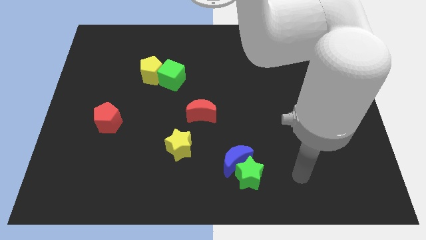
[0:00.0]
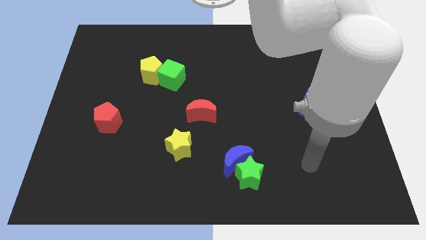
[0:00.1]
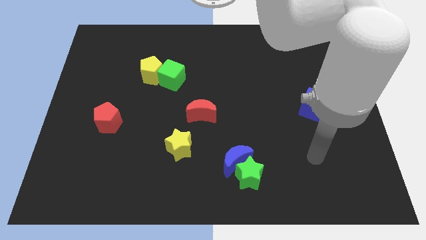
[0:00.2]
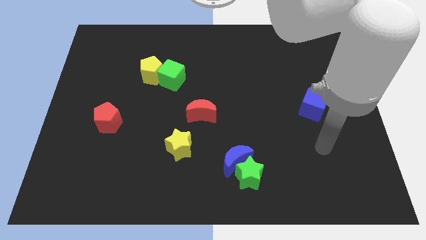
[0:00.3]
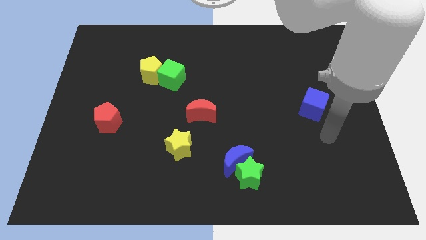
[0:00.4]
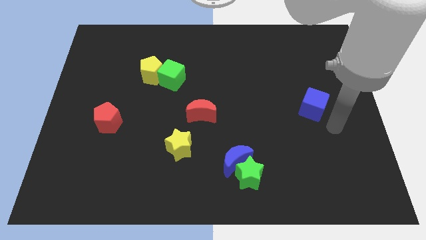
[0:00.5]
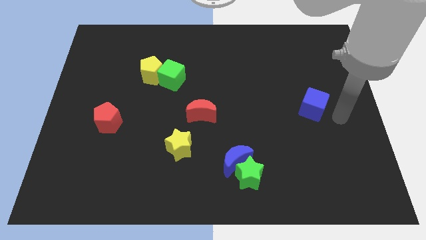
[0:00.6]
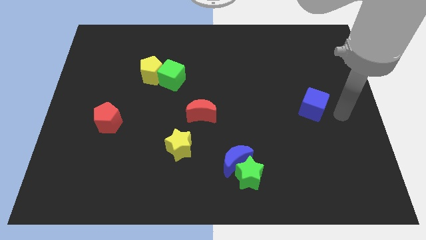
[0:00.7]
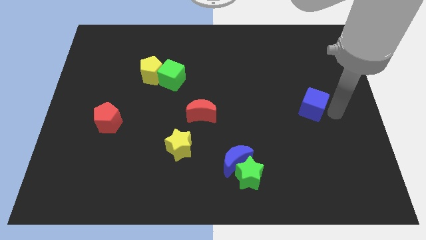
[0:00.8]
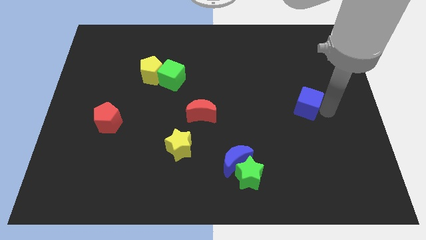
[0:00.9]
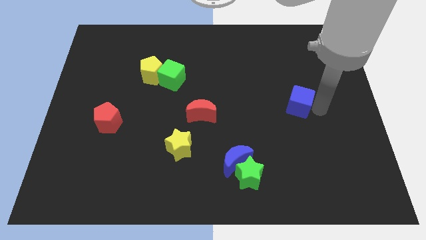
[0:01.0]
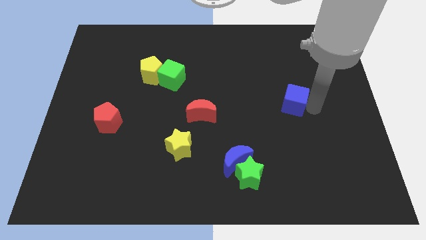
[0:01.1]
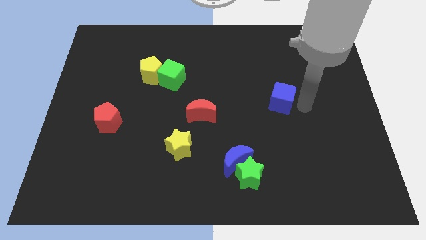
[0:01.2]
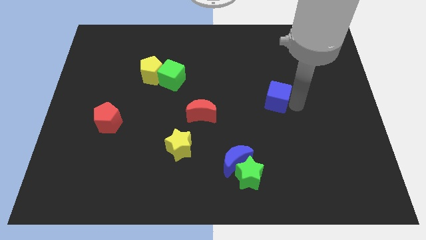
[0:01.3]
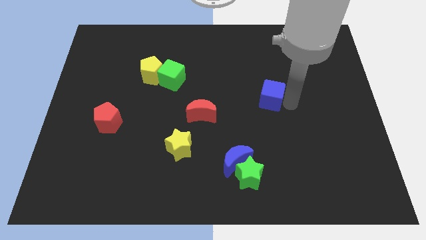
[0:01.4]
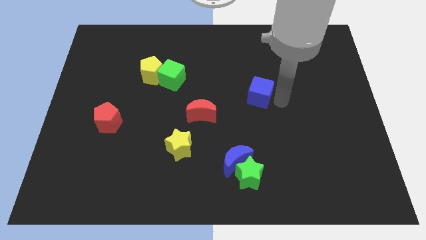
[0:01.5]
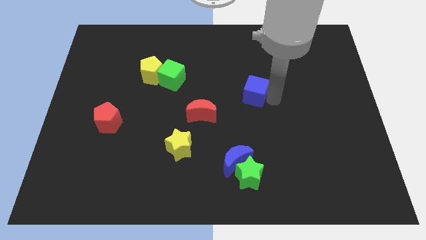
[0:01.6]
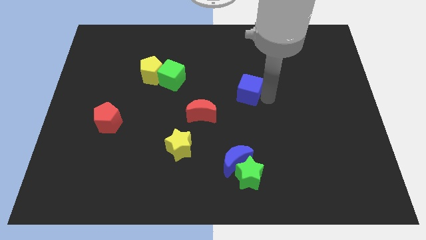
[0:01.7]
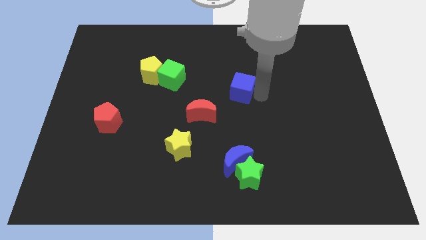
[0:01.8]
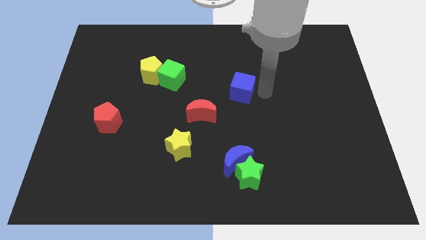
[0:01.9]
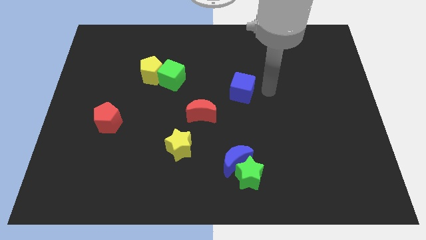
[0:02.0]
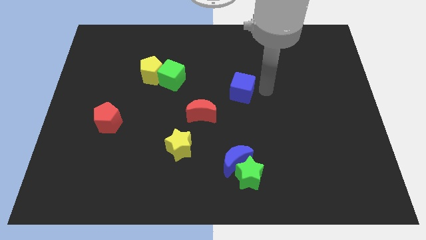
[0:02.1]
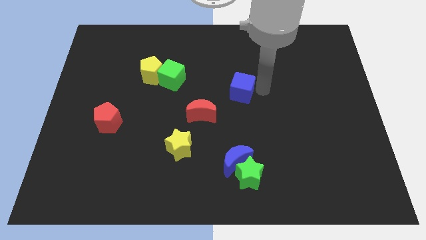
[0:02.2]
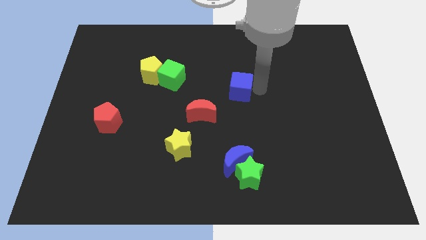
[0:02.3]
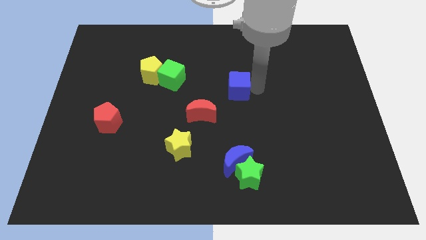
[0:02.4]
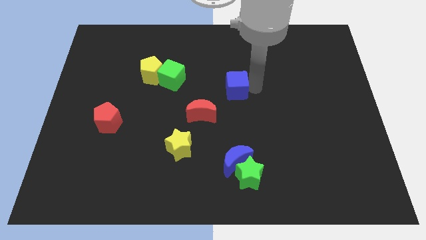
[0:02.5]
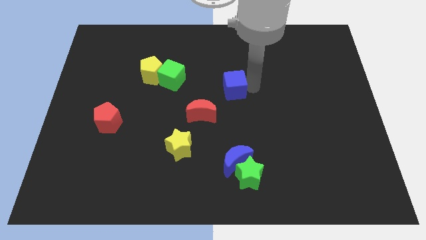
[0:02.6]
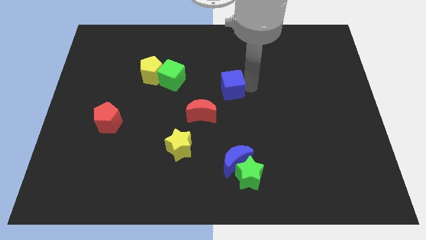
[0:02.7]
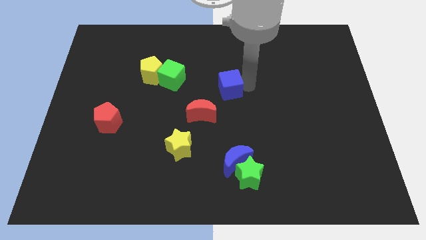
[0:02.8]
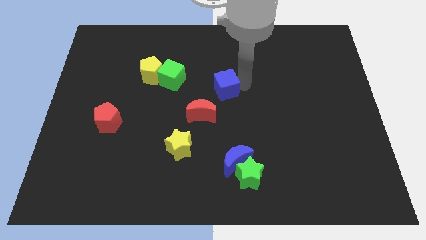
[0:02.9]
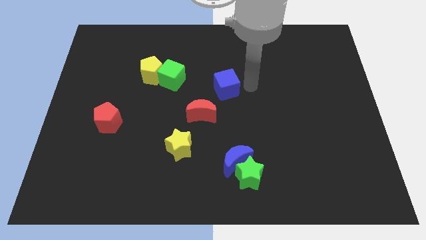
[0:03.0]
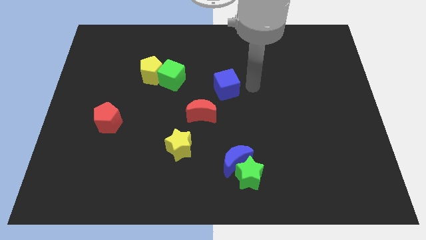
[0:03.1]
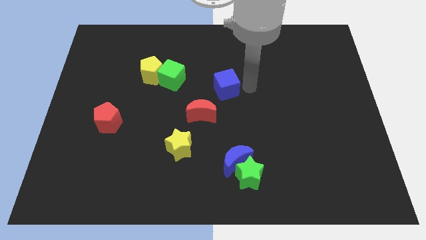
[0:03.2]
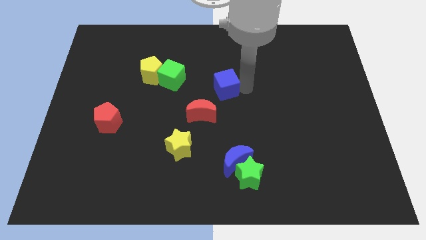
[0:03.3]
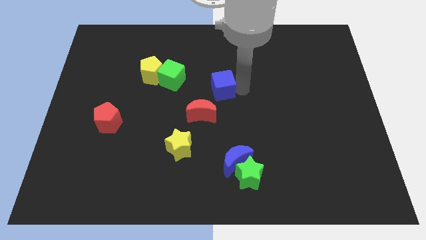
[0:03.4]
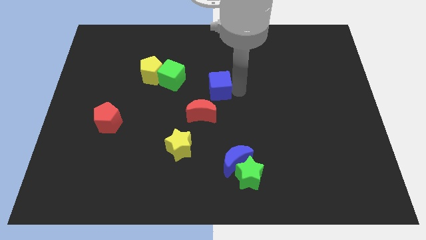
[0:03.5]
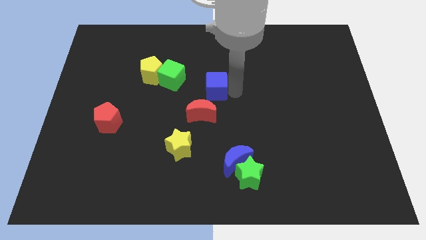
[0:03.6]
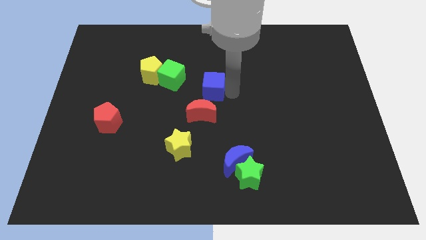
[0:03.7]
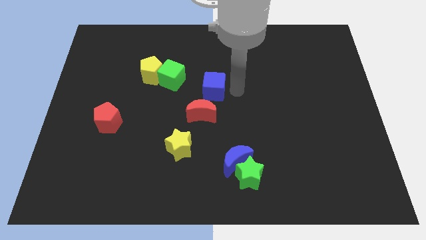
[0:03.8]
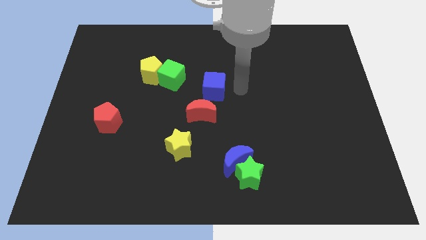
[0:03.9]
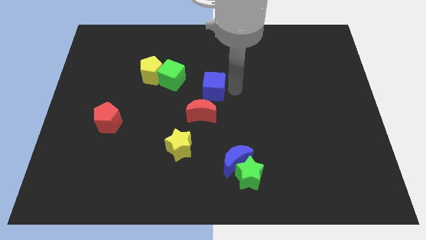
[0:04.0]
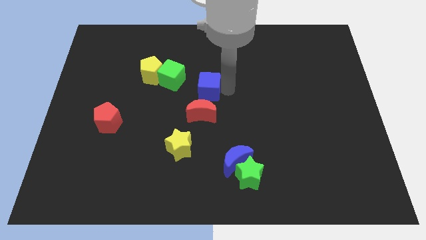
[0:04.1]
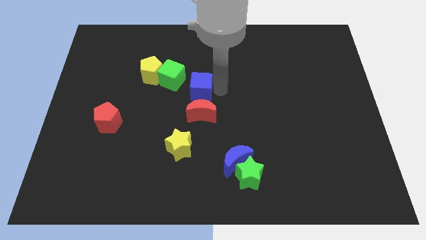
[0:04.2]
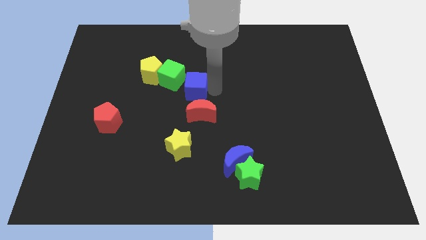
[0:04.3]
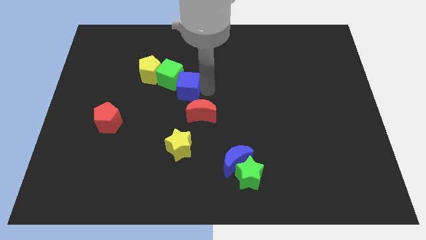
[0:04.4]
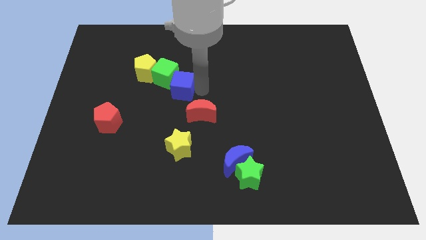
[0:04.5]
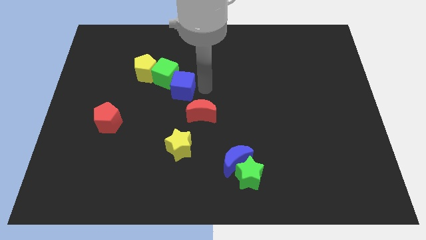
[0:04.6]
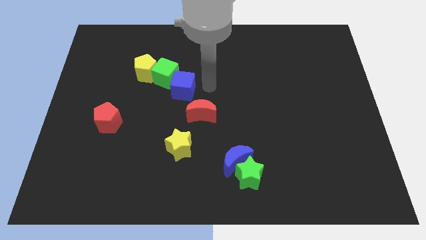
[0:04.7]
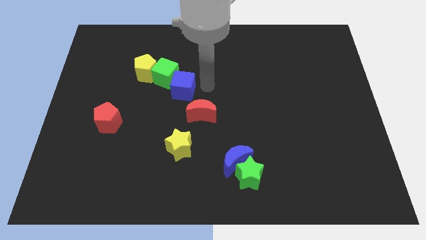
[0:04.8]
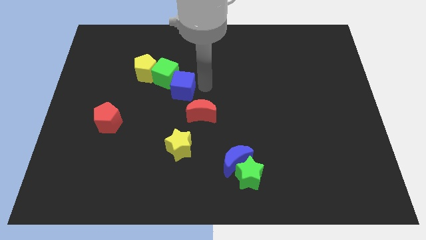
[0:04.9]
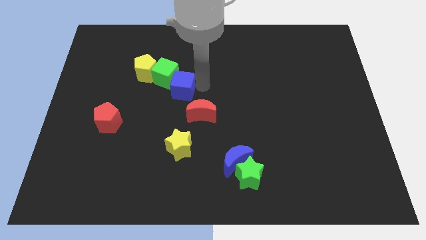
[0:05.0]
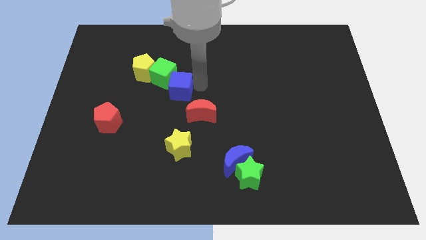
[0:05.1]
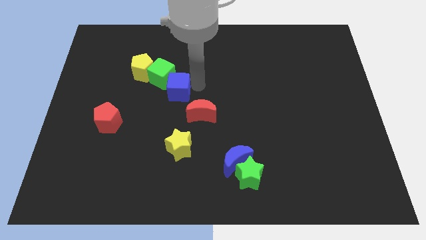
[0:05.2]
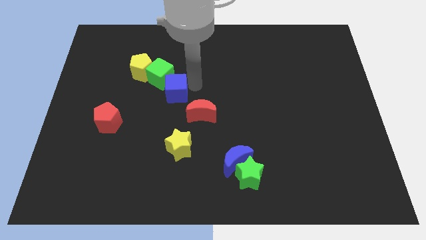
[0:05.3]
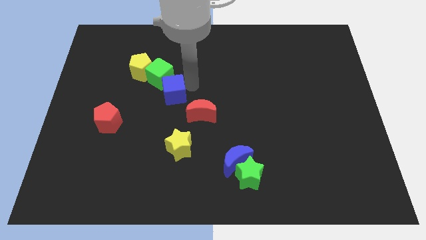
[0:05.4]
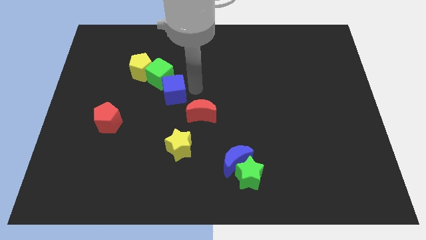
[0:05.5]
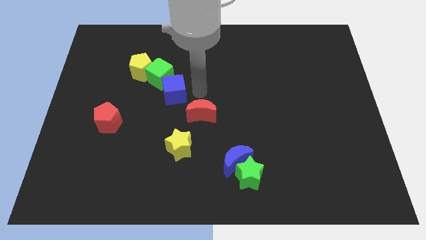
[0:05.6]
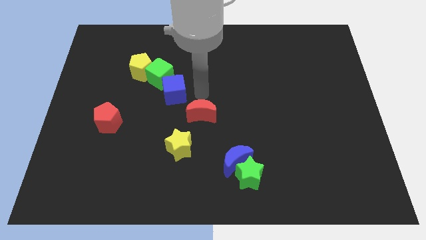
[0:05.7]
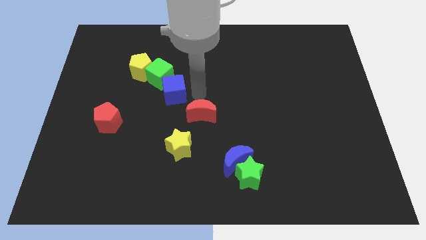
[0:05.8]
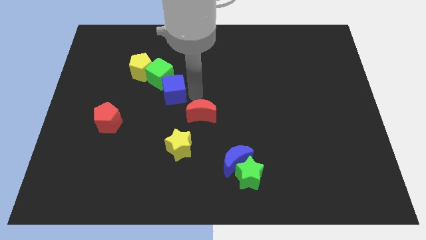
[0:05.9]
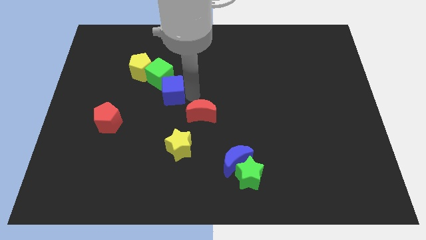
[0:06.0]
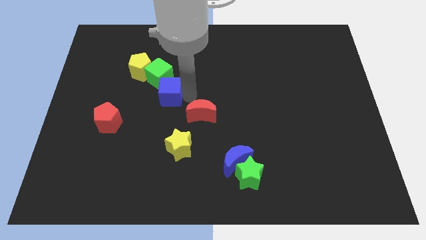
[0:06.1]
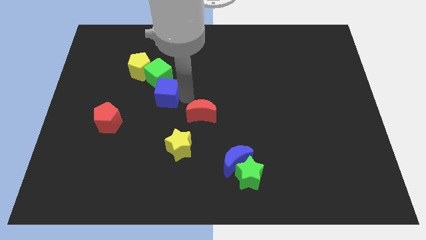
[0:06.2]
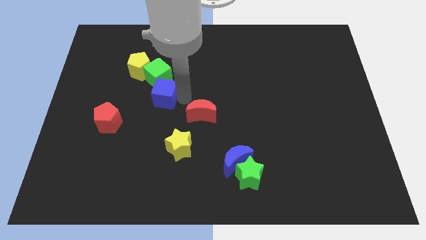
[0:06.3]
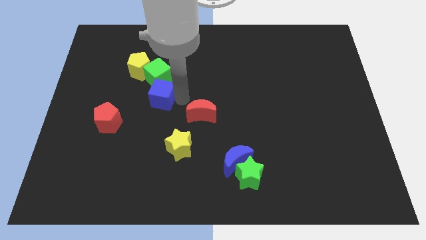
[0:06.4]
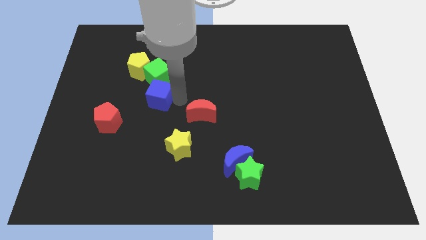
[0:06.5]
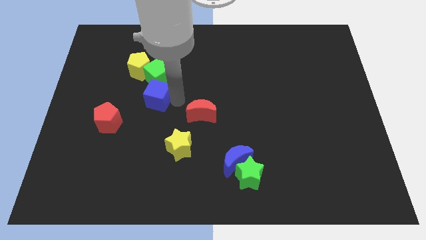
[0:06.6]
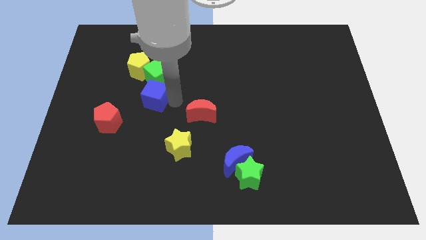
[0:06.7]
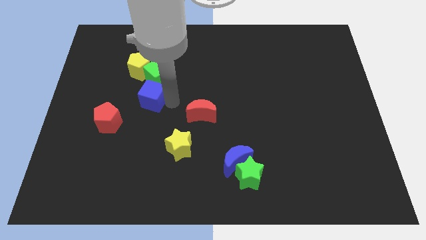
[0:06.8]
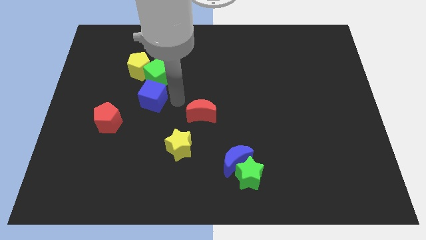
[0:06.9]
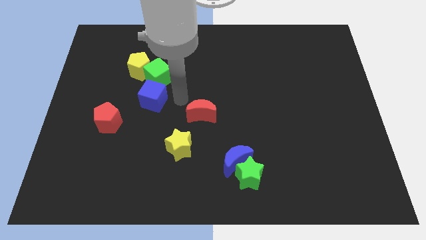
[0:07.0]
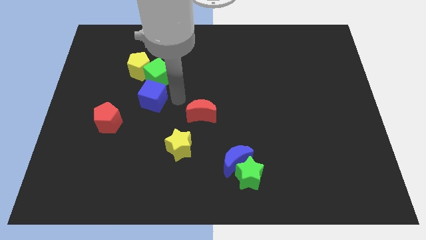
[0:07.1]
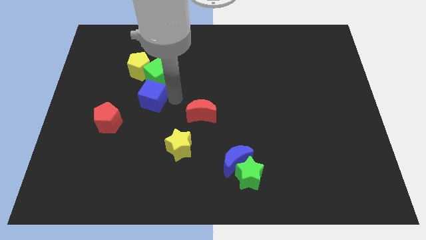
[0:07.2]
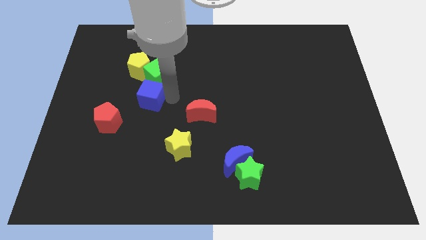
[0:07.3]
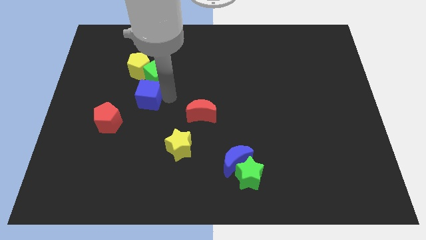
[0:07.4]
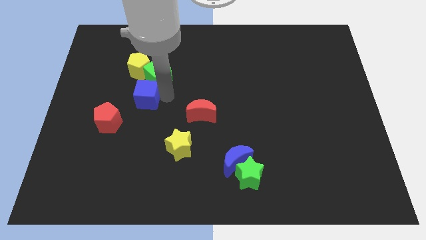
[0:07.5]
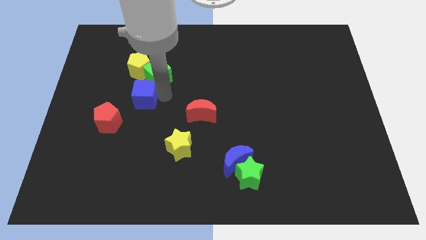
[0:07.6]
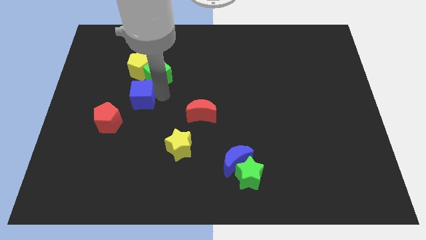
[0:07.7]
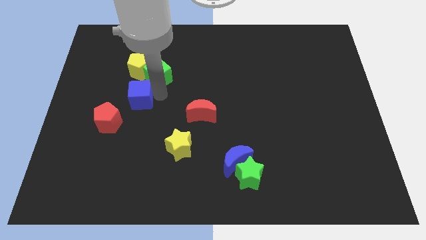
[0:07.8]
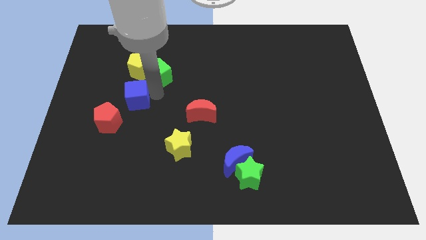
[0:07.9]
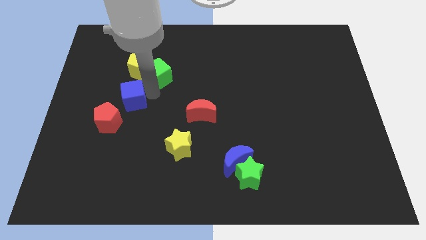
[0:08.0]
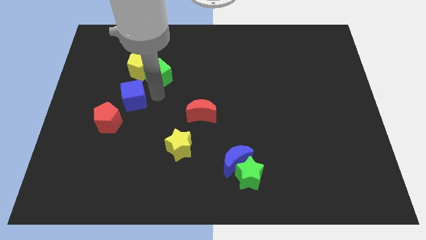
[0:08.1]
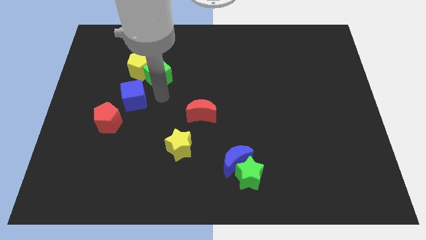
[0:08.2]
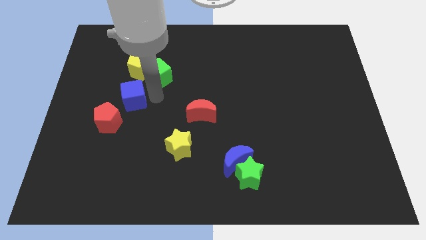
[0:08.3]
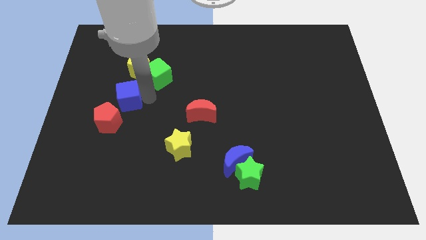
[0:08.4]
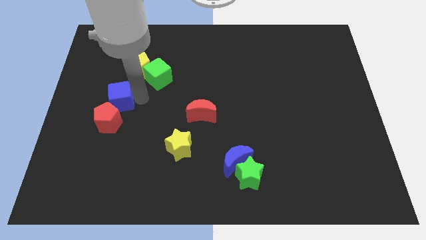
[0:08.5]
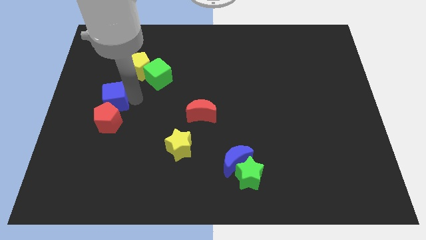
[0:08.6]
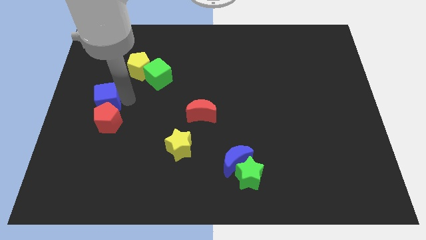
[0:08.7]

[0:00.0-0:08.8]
put the blue cube to the center left
